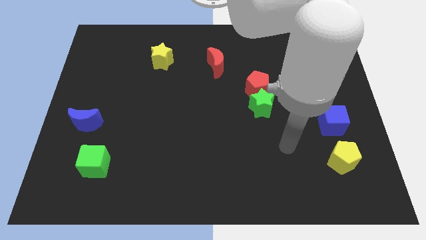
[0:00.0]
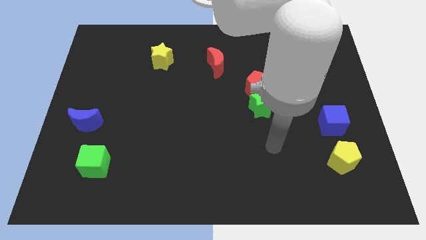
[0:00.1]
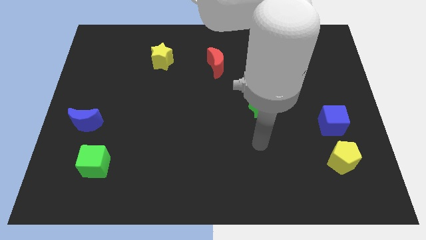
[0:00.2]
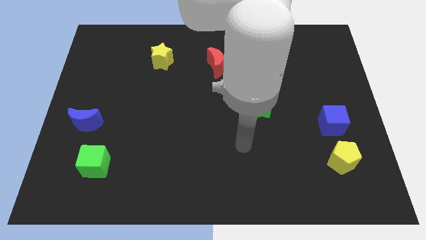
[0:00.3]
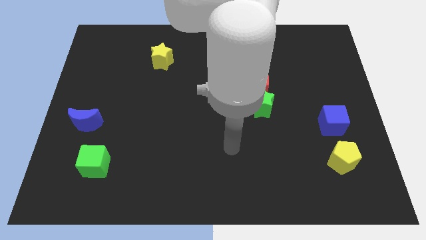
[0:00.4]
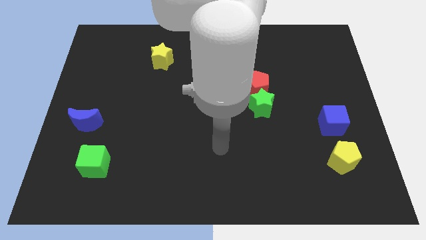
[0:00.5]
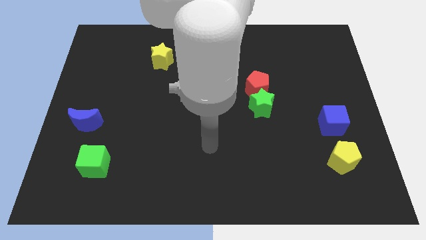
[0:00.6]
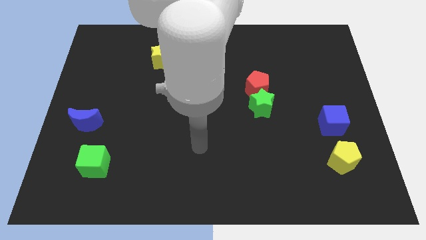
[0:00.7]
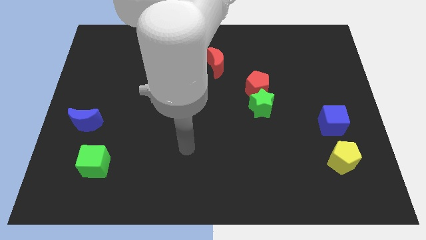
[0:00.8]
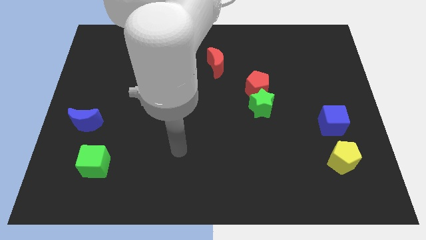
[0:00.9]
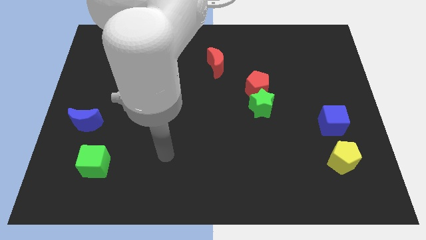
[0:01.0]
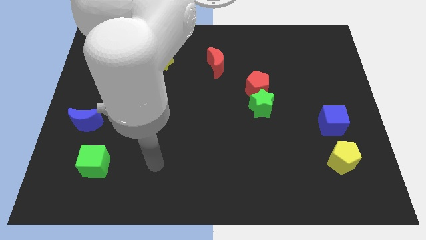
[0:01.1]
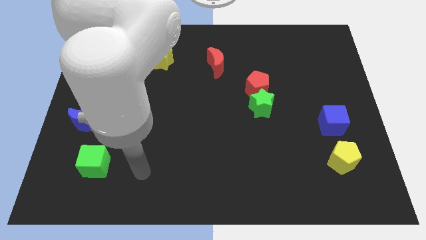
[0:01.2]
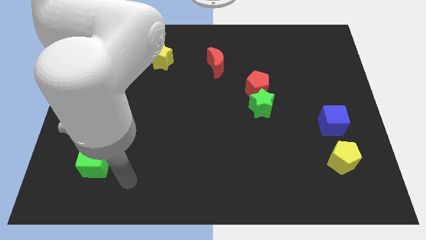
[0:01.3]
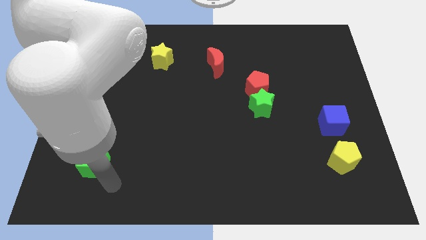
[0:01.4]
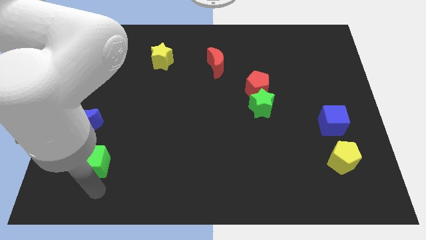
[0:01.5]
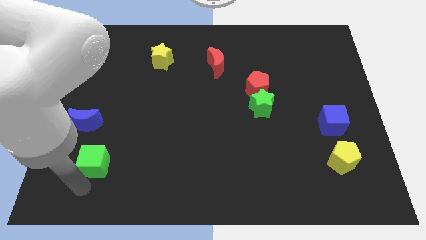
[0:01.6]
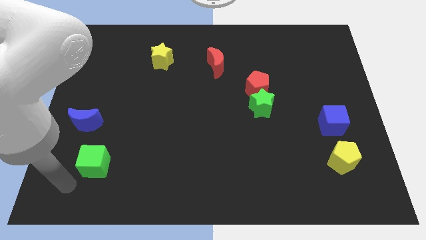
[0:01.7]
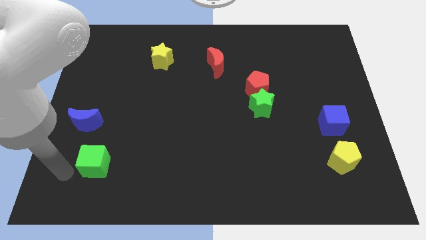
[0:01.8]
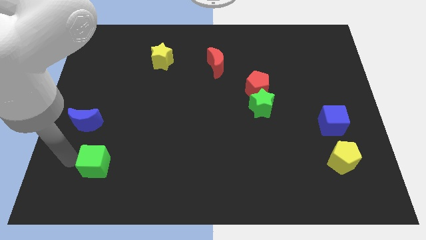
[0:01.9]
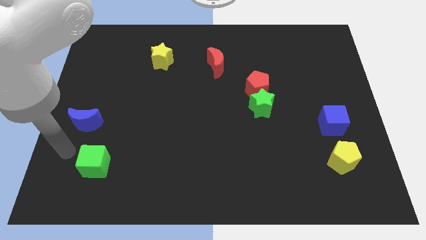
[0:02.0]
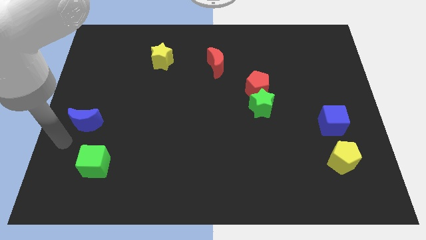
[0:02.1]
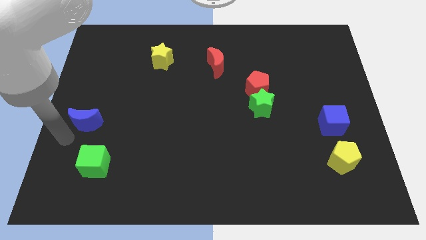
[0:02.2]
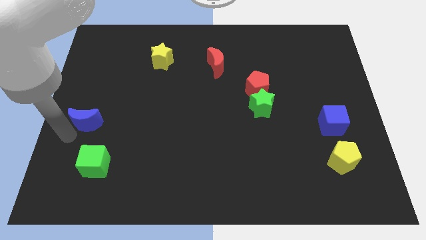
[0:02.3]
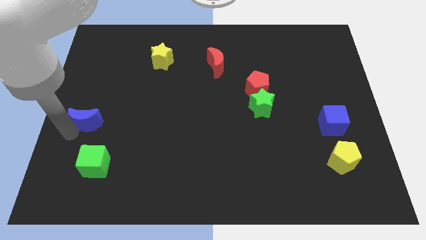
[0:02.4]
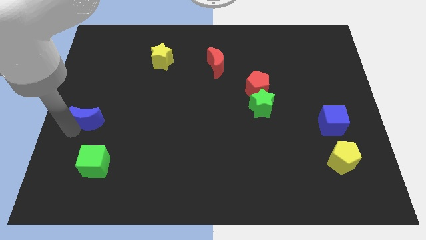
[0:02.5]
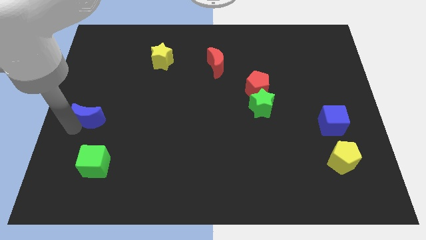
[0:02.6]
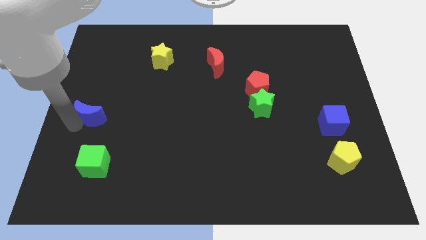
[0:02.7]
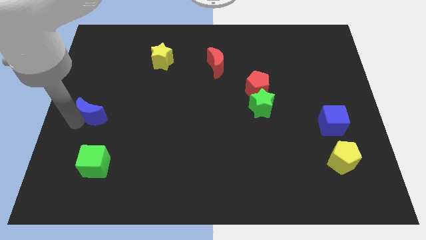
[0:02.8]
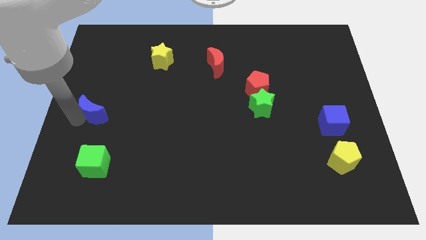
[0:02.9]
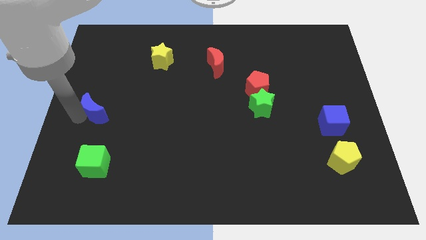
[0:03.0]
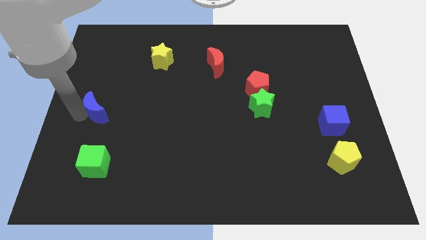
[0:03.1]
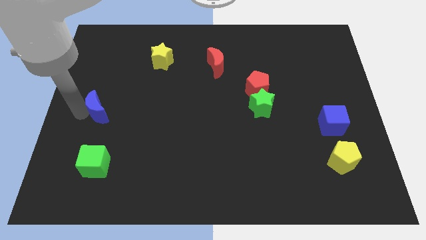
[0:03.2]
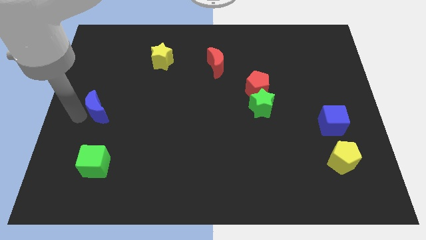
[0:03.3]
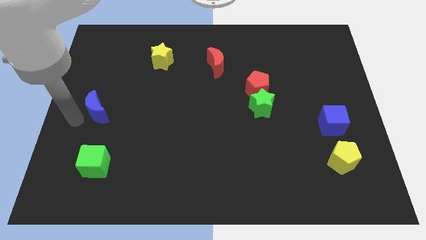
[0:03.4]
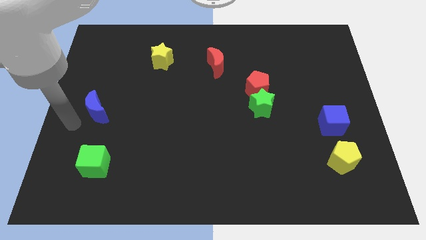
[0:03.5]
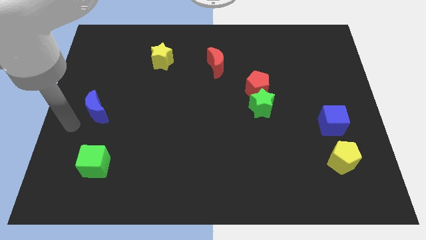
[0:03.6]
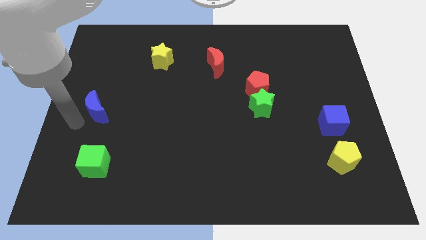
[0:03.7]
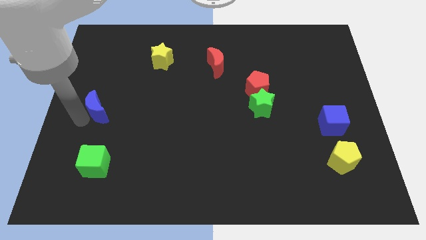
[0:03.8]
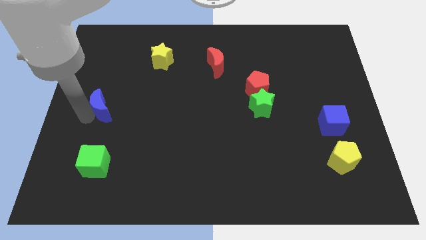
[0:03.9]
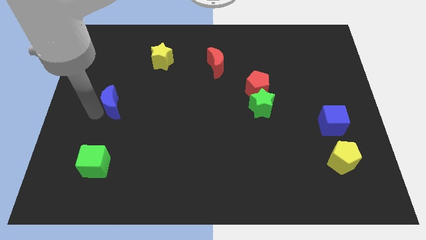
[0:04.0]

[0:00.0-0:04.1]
push the blue moon diagonally upwards and to the right a little

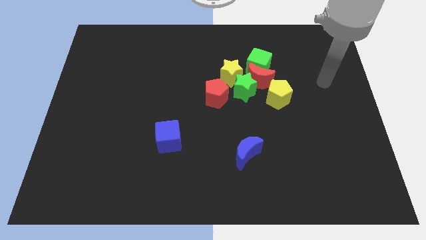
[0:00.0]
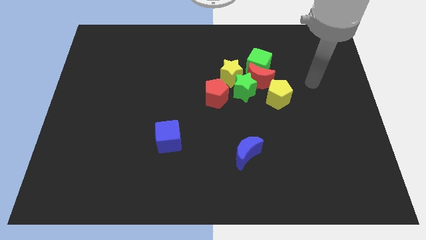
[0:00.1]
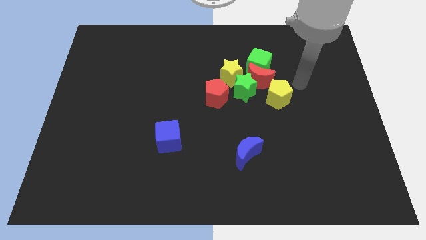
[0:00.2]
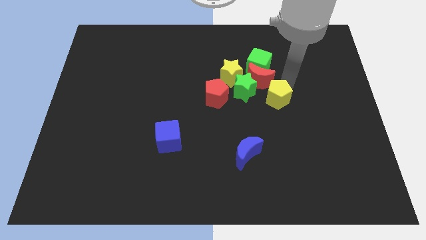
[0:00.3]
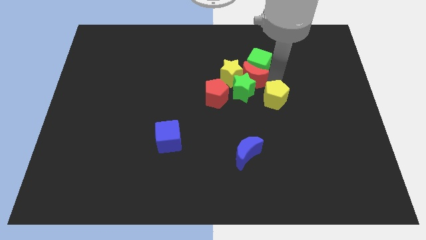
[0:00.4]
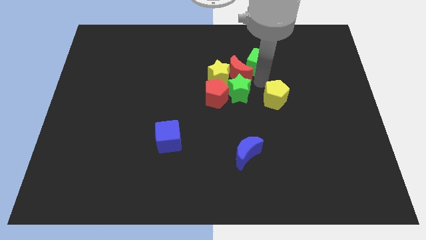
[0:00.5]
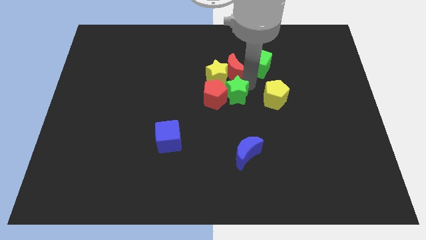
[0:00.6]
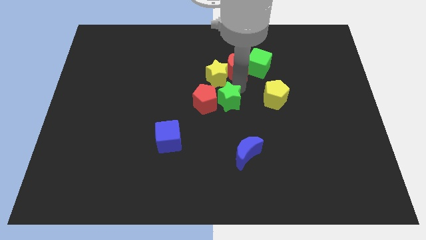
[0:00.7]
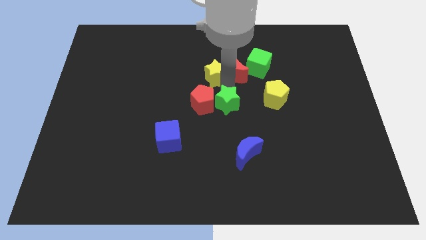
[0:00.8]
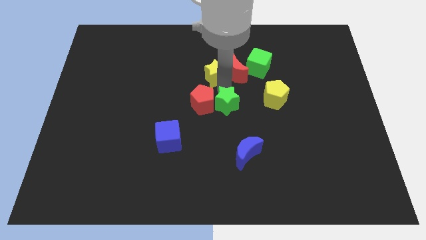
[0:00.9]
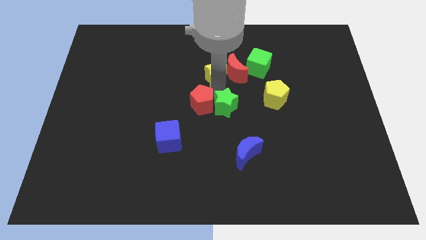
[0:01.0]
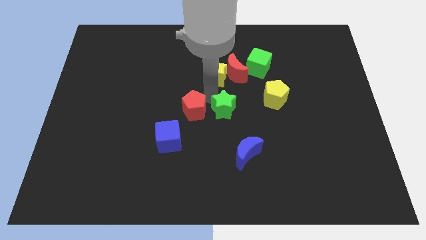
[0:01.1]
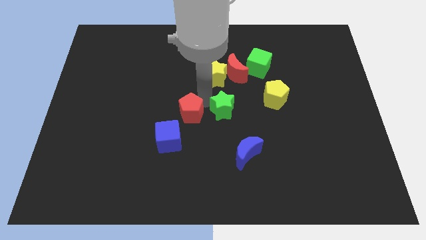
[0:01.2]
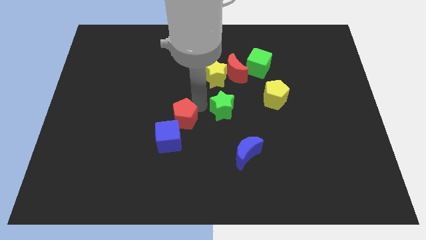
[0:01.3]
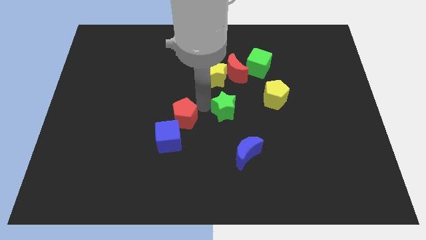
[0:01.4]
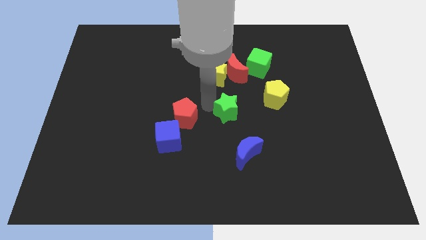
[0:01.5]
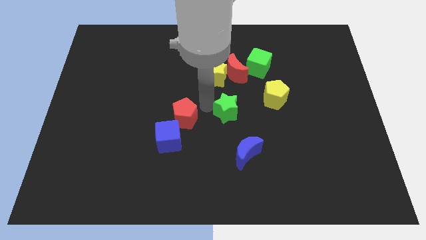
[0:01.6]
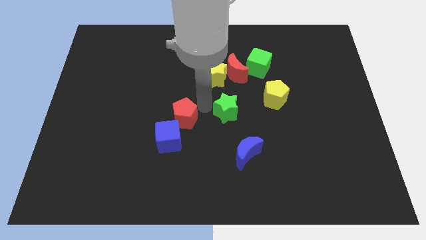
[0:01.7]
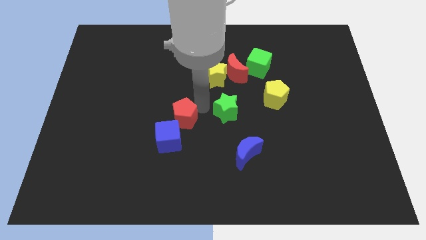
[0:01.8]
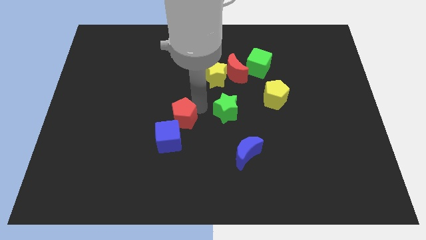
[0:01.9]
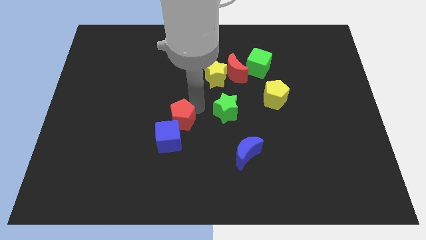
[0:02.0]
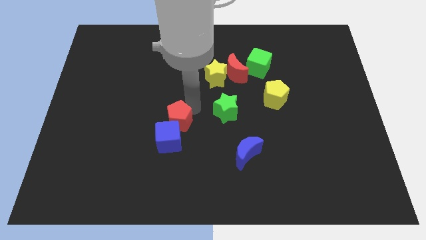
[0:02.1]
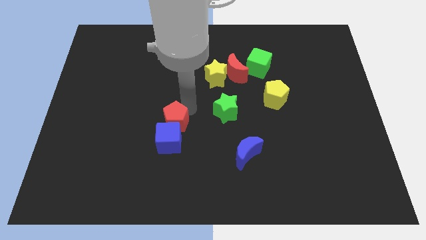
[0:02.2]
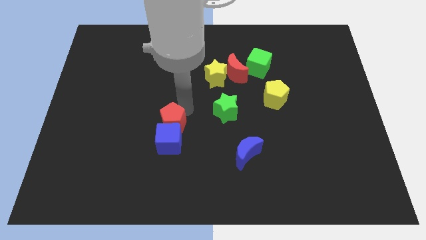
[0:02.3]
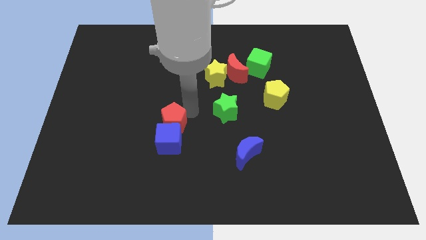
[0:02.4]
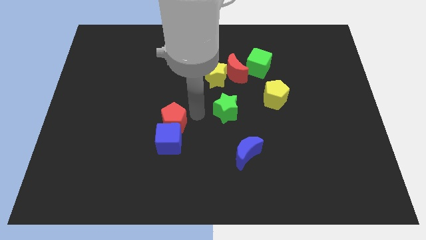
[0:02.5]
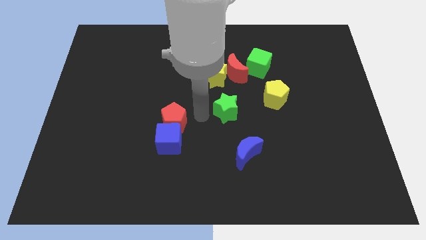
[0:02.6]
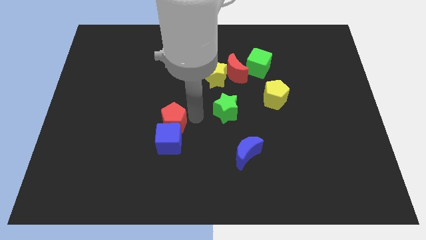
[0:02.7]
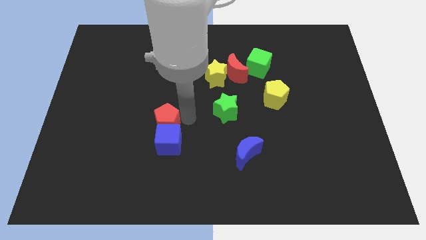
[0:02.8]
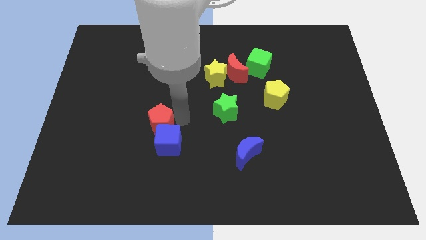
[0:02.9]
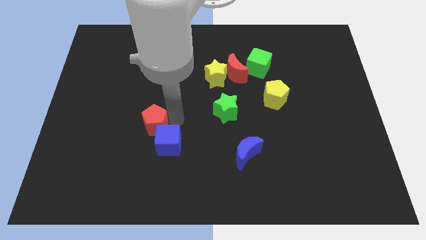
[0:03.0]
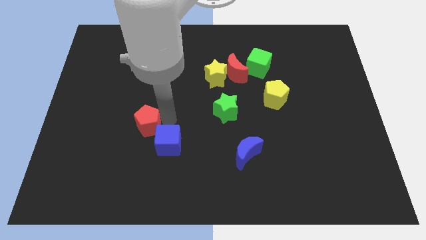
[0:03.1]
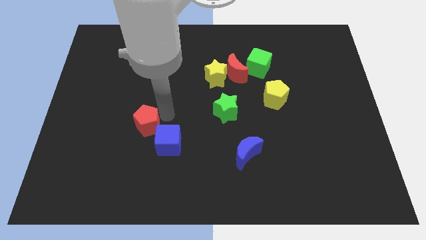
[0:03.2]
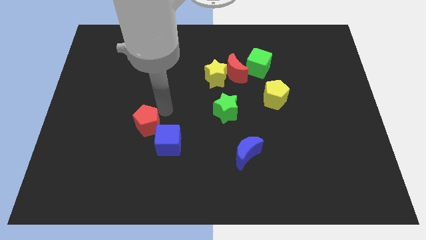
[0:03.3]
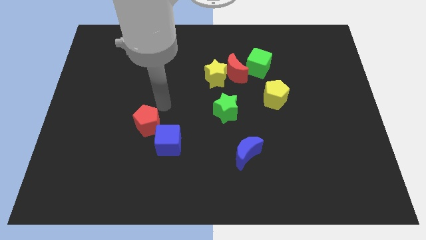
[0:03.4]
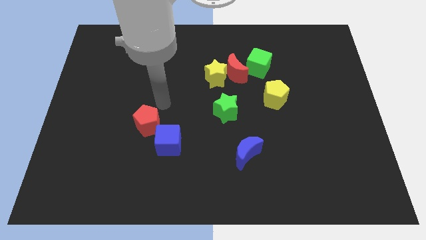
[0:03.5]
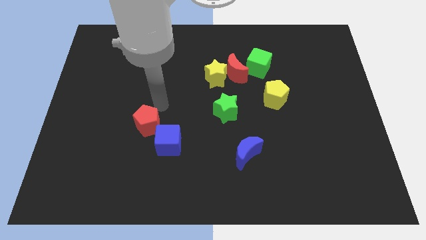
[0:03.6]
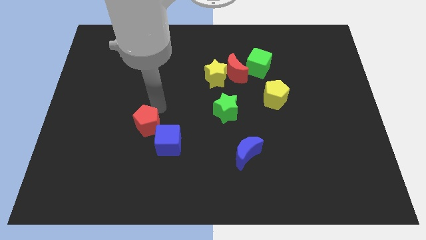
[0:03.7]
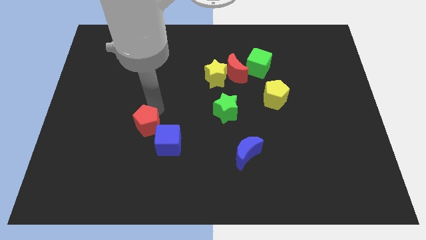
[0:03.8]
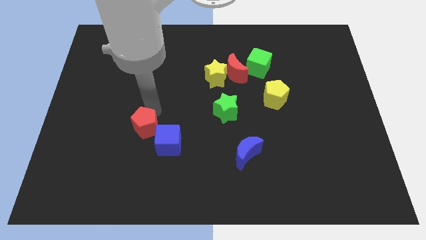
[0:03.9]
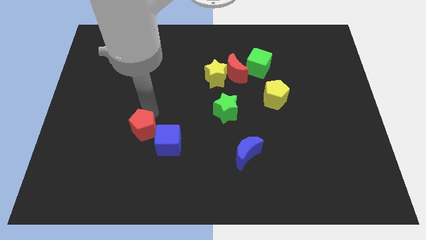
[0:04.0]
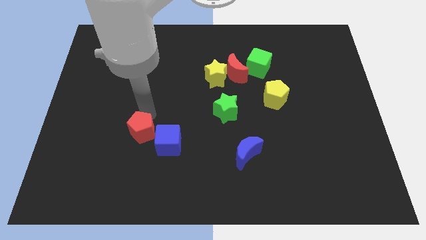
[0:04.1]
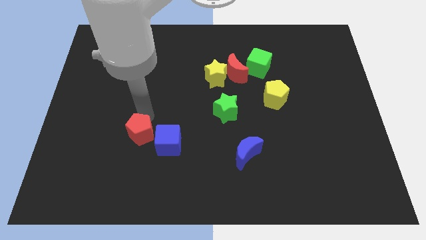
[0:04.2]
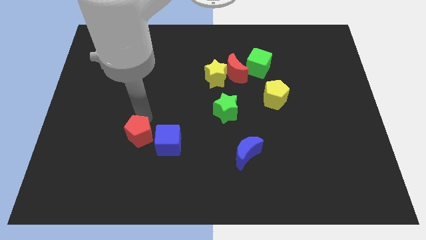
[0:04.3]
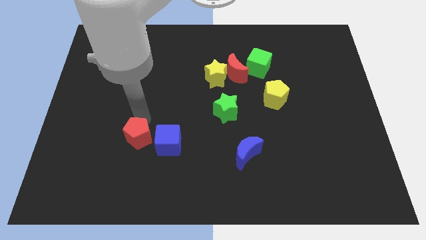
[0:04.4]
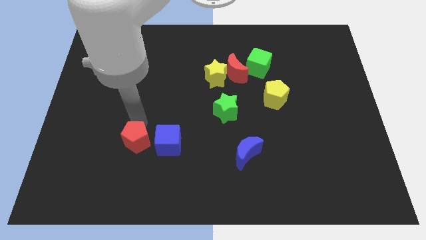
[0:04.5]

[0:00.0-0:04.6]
slide the red pentagon downwards and left
